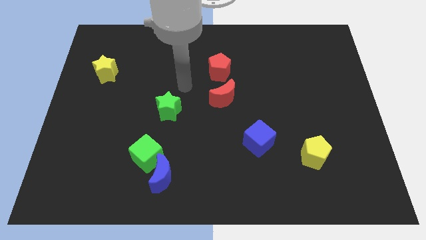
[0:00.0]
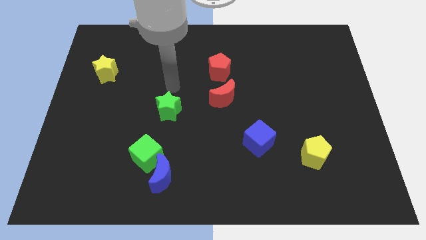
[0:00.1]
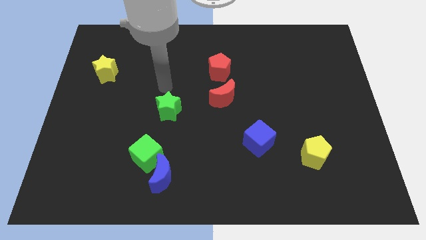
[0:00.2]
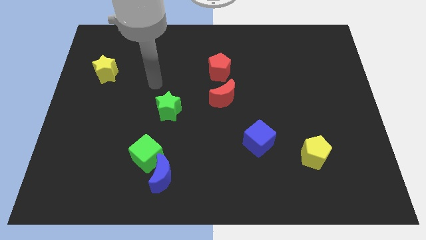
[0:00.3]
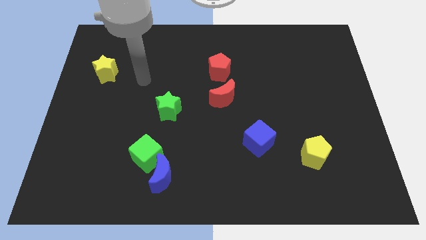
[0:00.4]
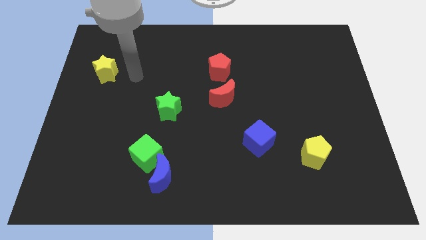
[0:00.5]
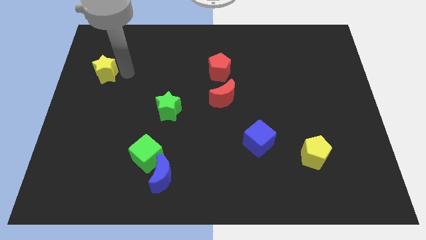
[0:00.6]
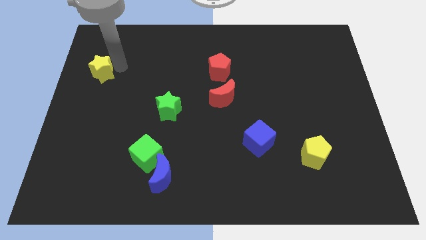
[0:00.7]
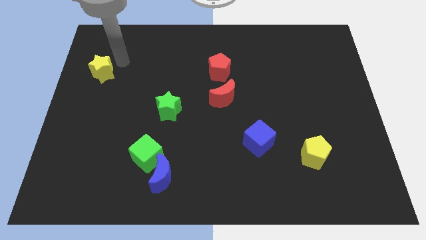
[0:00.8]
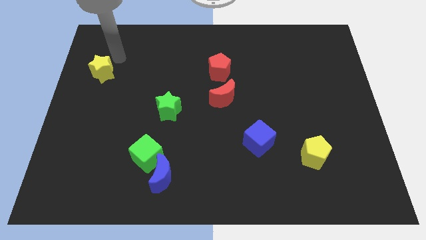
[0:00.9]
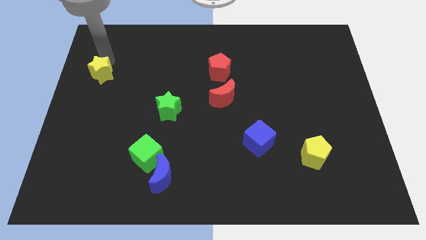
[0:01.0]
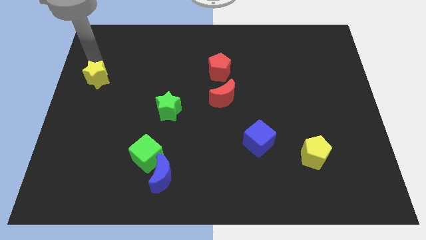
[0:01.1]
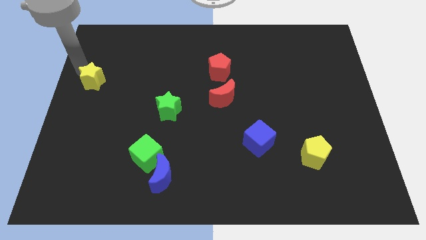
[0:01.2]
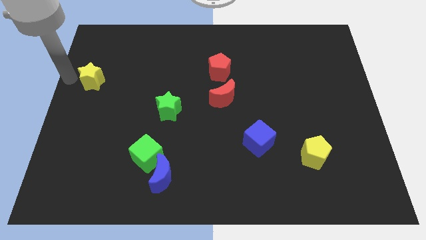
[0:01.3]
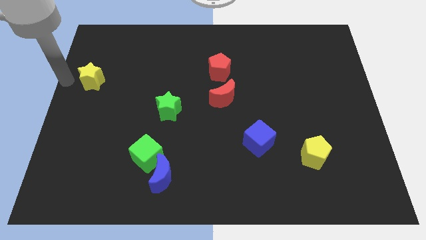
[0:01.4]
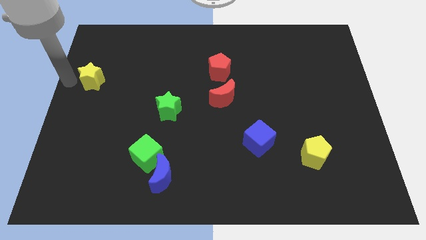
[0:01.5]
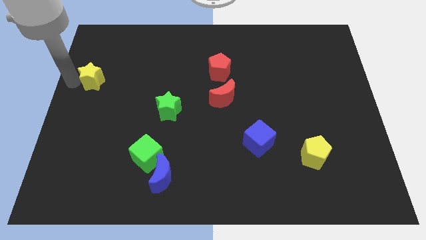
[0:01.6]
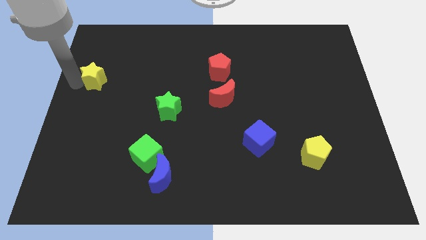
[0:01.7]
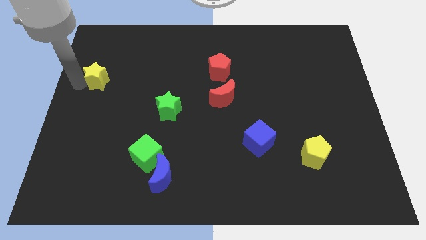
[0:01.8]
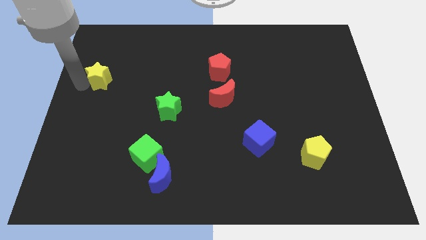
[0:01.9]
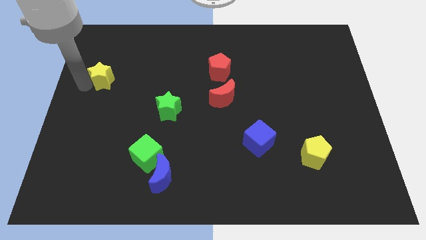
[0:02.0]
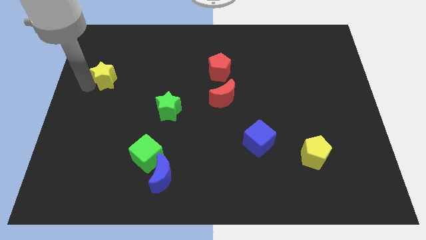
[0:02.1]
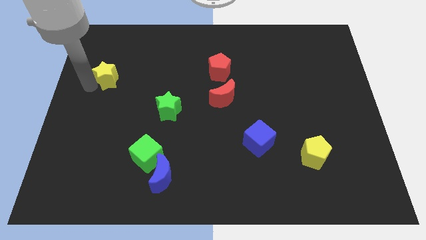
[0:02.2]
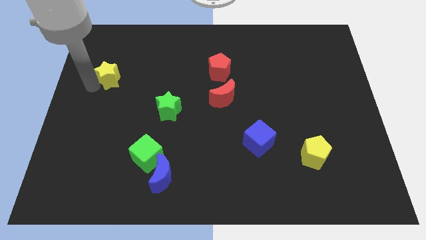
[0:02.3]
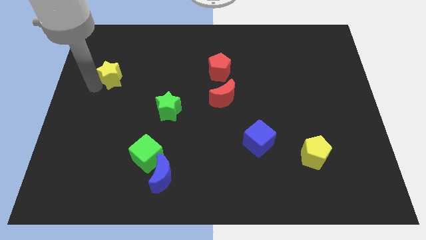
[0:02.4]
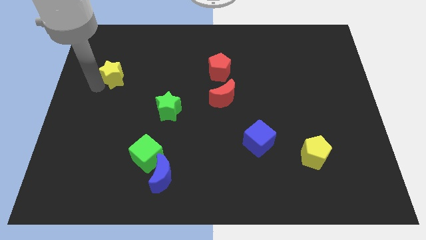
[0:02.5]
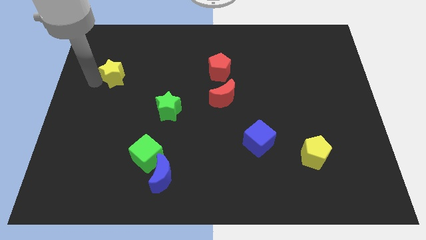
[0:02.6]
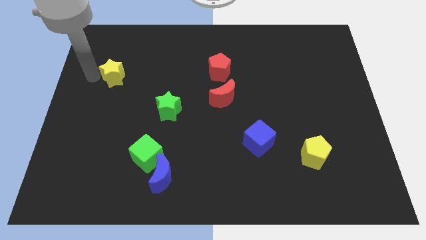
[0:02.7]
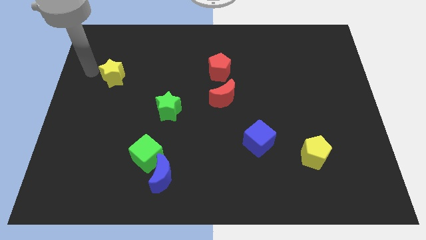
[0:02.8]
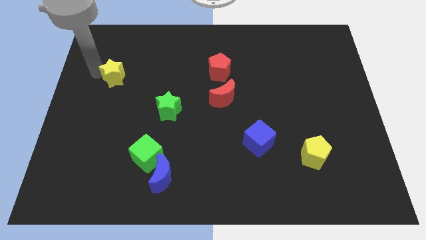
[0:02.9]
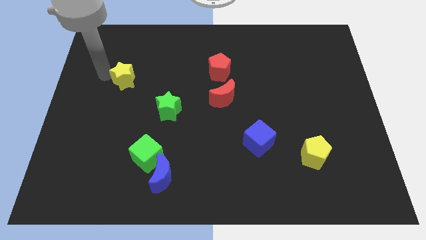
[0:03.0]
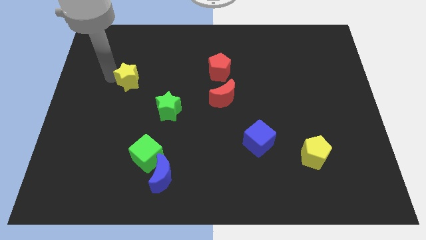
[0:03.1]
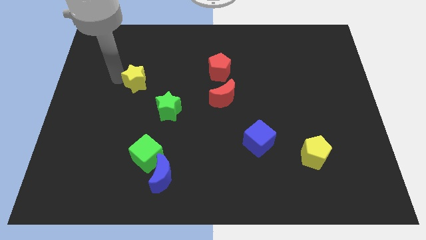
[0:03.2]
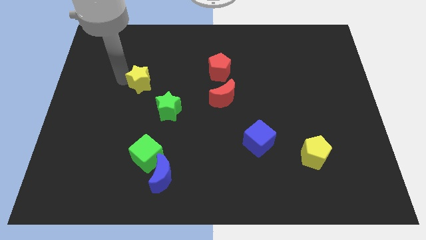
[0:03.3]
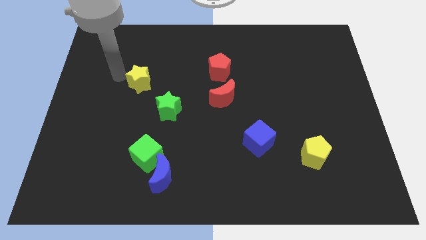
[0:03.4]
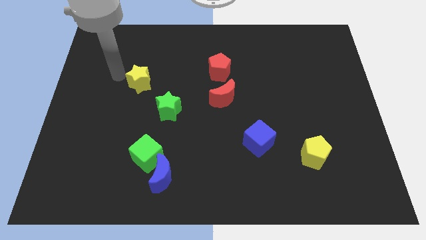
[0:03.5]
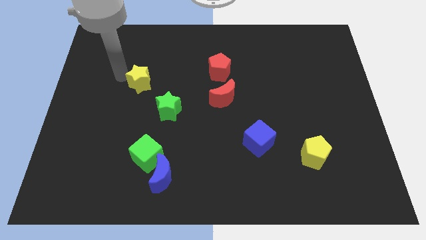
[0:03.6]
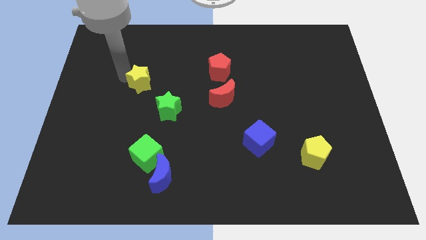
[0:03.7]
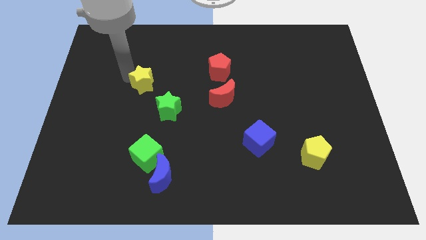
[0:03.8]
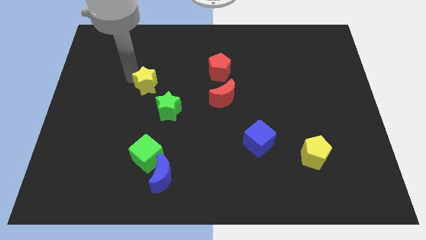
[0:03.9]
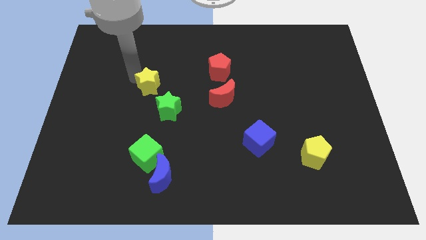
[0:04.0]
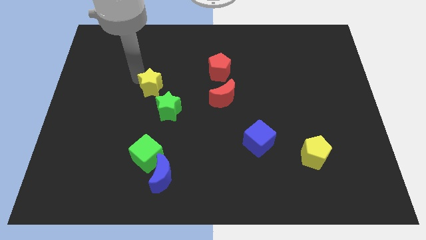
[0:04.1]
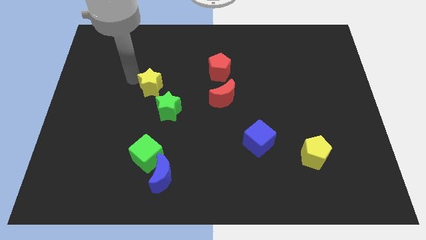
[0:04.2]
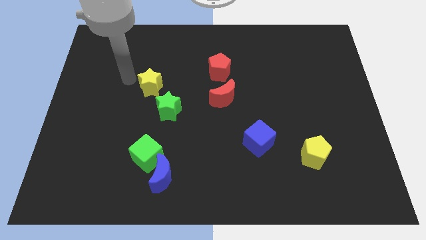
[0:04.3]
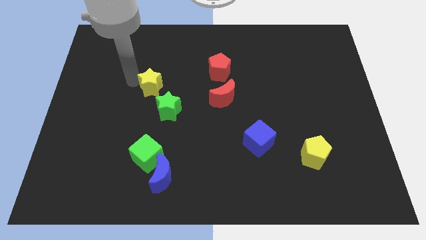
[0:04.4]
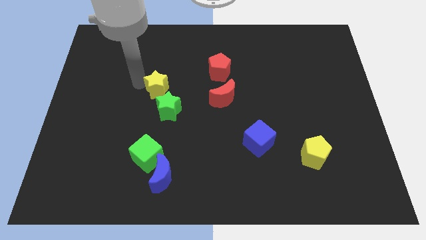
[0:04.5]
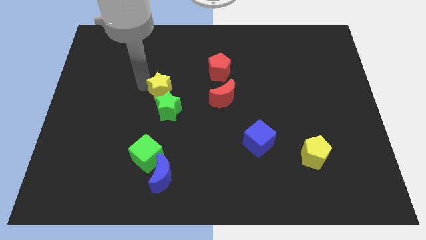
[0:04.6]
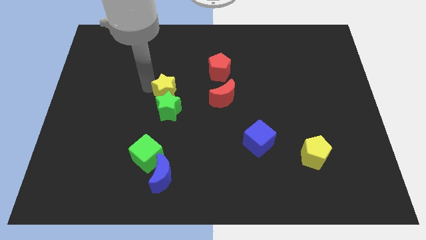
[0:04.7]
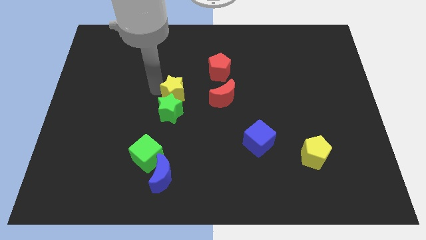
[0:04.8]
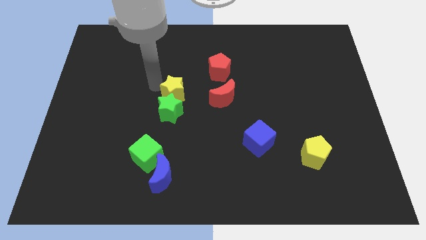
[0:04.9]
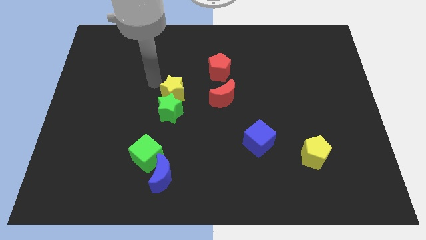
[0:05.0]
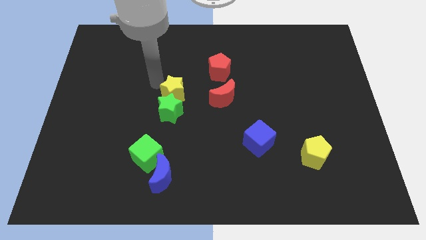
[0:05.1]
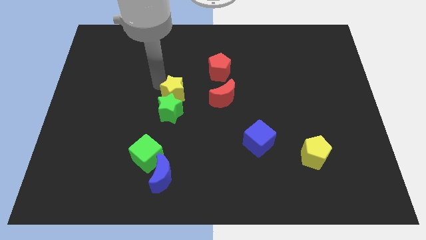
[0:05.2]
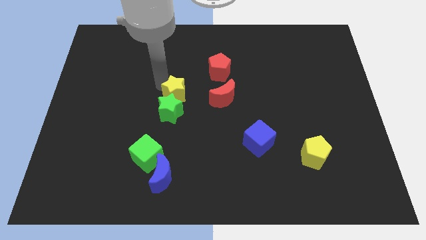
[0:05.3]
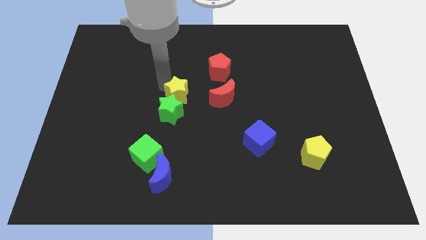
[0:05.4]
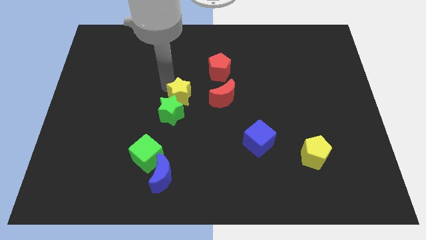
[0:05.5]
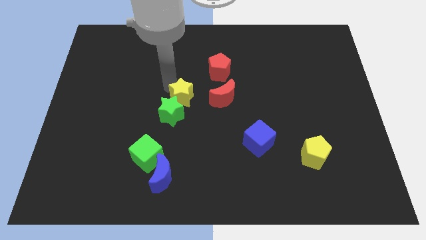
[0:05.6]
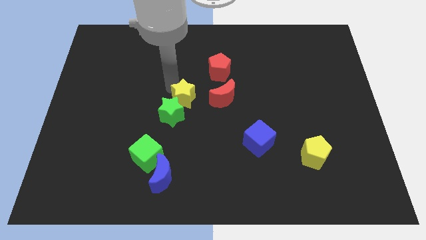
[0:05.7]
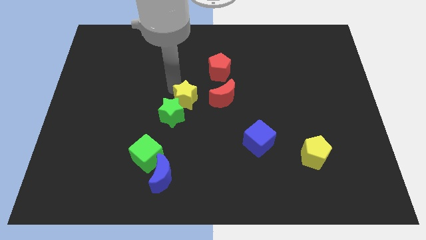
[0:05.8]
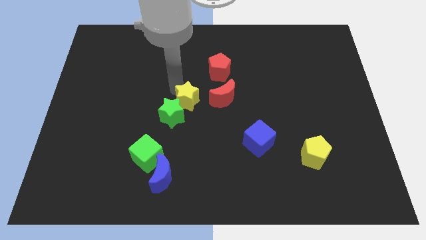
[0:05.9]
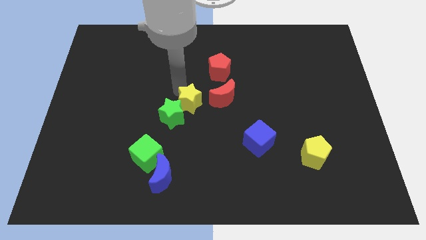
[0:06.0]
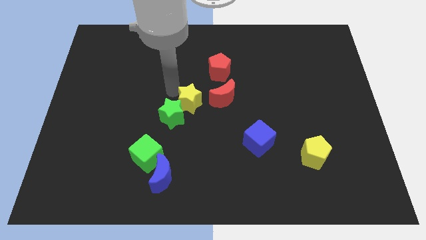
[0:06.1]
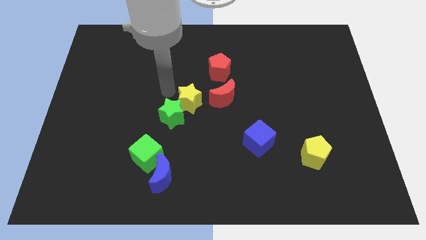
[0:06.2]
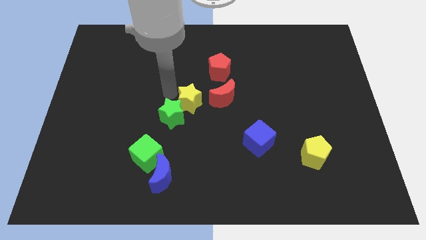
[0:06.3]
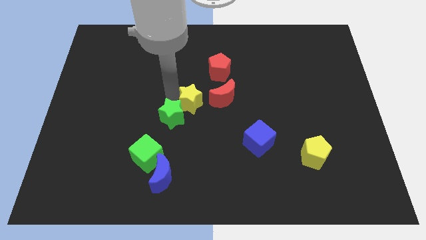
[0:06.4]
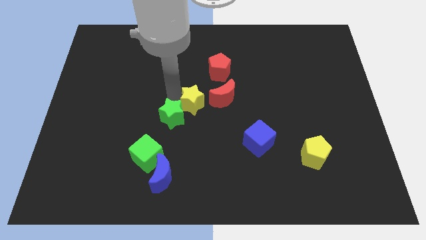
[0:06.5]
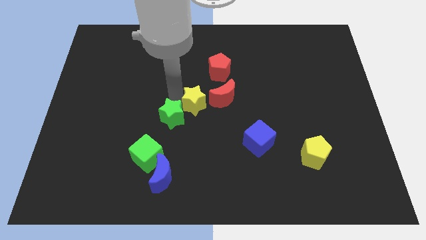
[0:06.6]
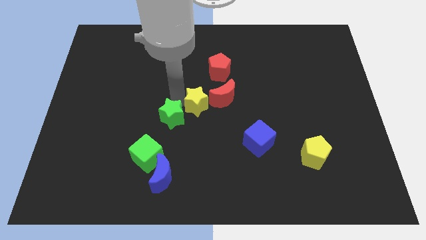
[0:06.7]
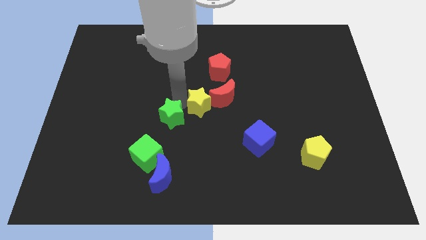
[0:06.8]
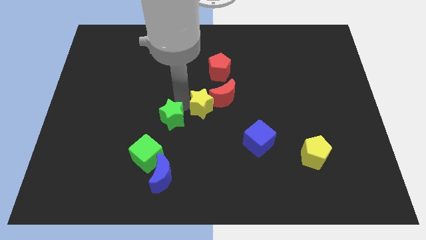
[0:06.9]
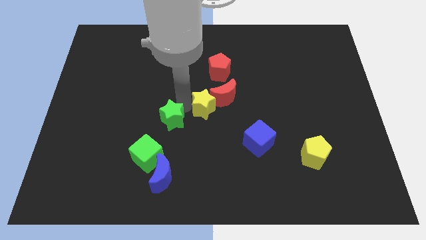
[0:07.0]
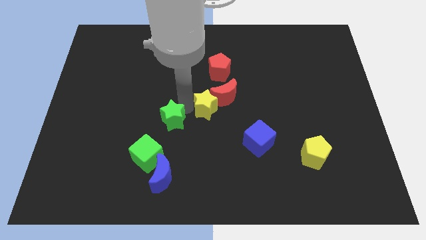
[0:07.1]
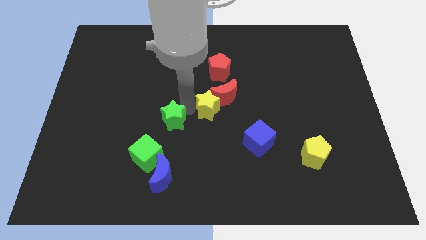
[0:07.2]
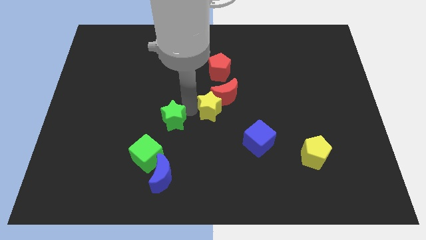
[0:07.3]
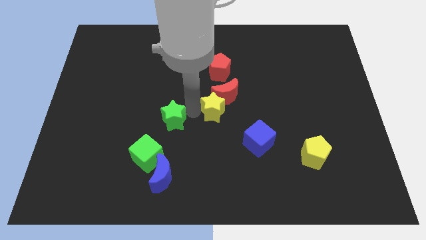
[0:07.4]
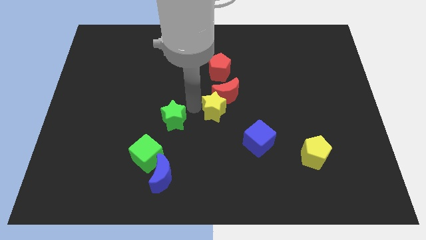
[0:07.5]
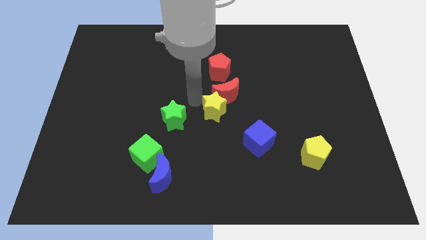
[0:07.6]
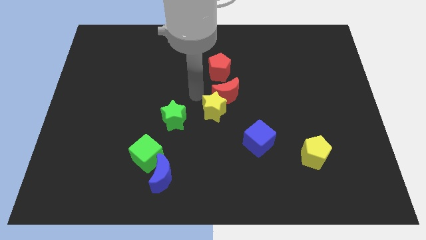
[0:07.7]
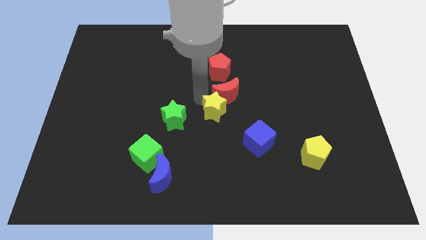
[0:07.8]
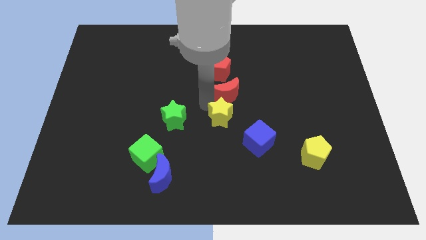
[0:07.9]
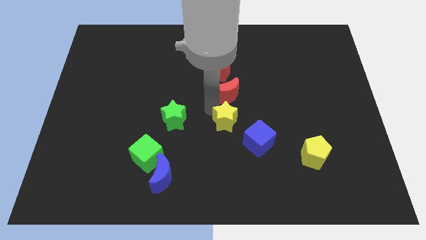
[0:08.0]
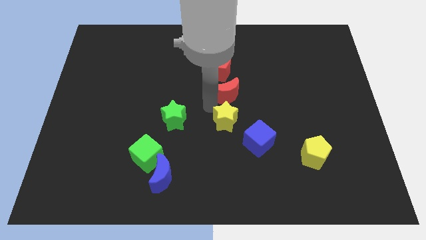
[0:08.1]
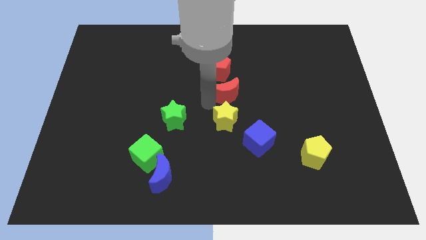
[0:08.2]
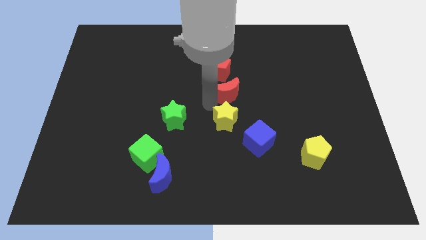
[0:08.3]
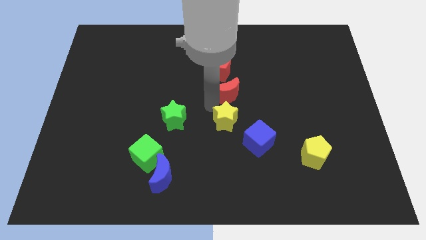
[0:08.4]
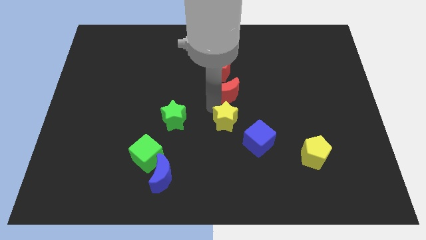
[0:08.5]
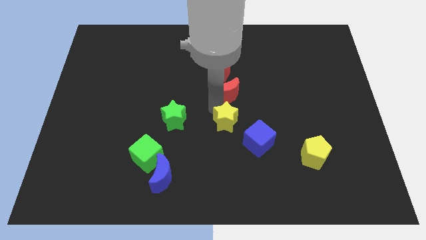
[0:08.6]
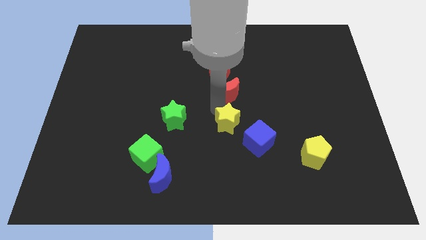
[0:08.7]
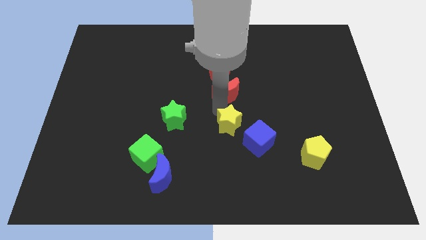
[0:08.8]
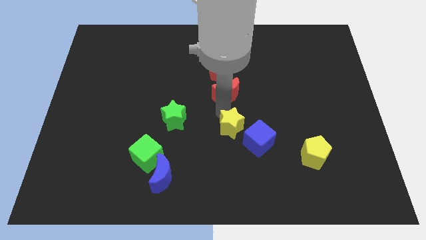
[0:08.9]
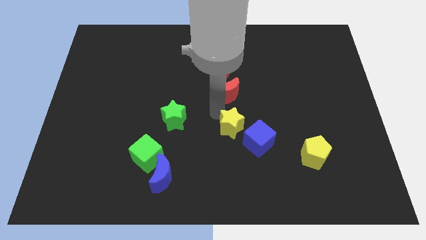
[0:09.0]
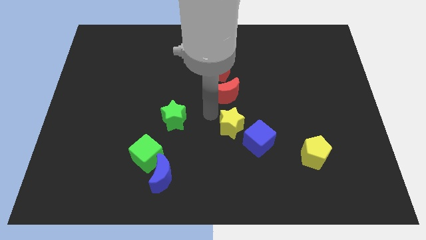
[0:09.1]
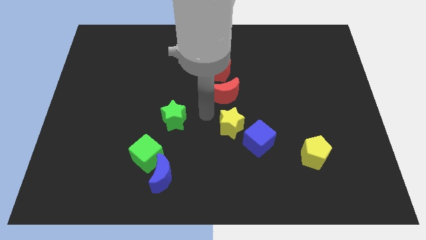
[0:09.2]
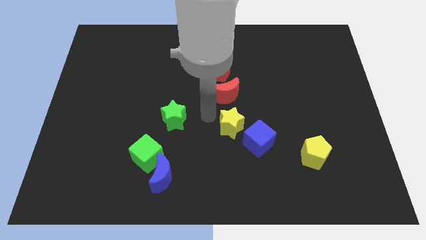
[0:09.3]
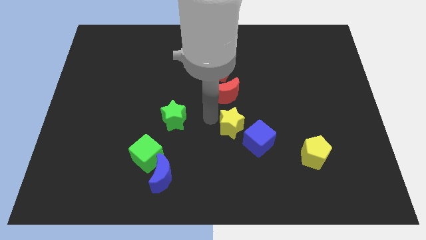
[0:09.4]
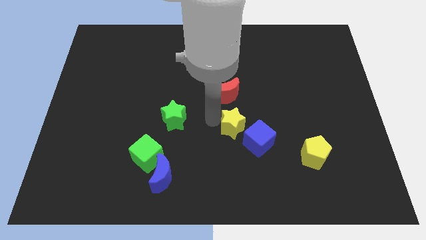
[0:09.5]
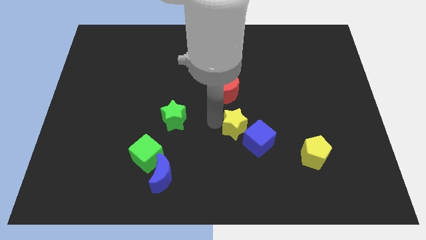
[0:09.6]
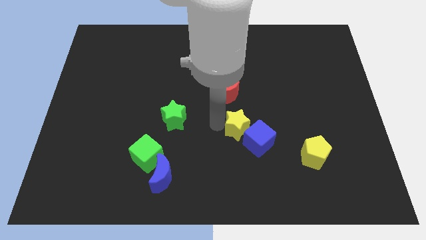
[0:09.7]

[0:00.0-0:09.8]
push the yellow star close to the blue cube
